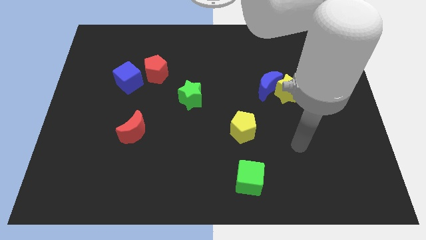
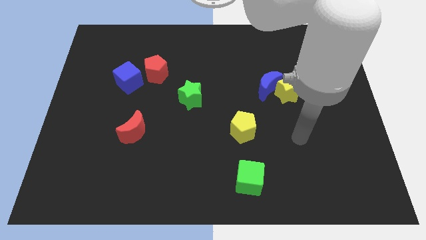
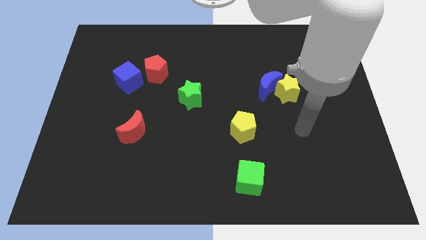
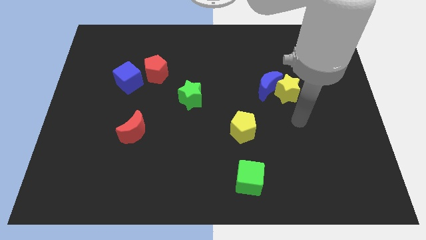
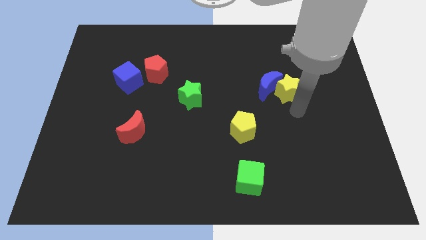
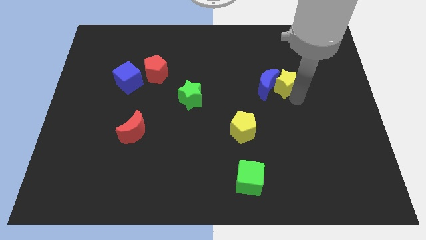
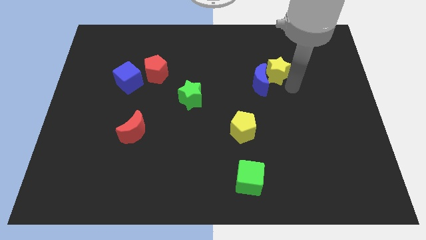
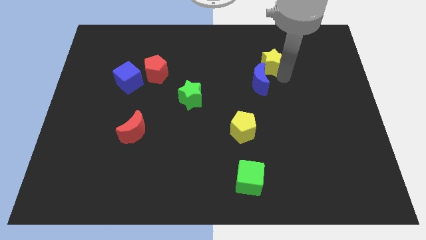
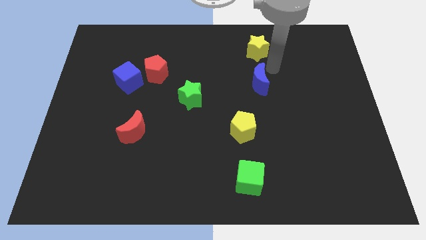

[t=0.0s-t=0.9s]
separate the blue moon from the yellow star

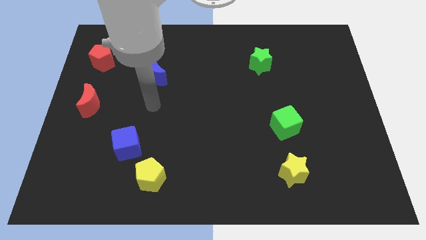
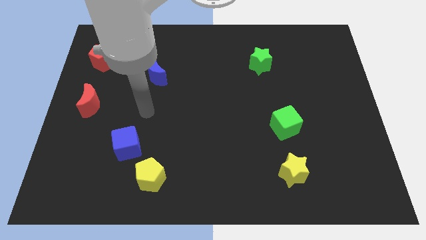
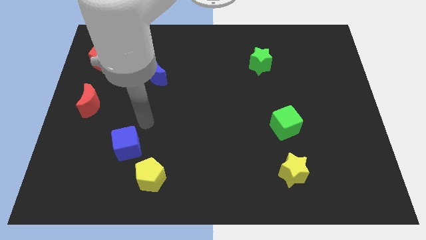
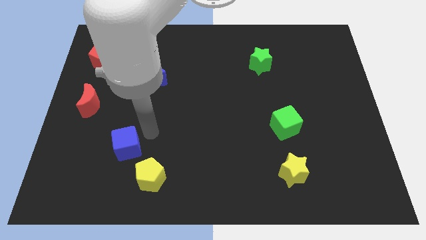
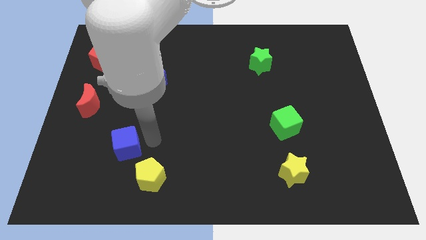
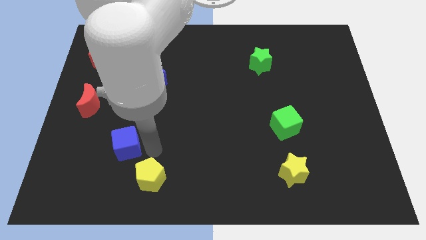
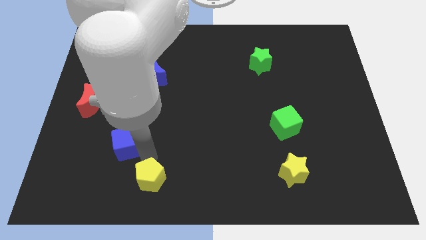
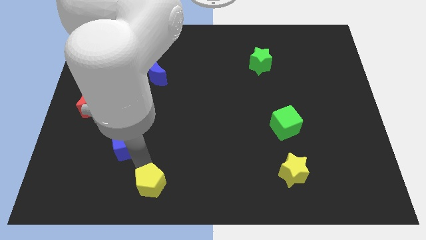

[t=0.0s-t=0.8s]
pull the blue cube apart from the yellow pentagon

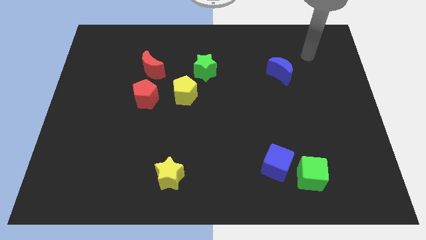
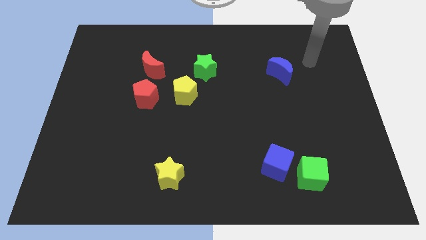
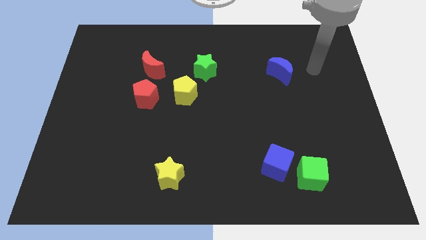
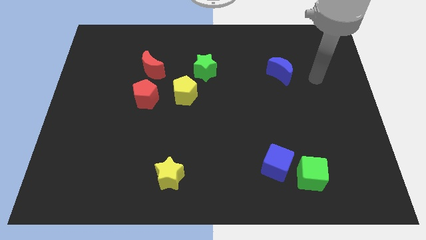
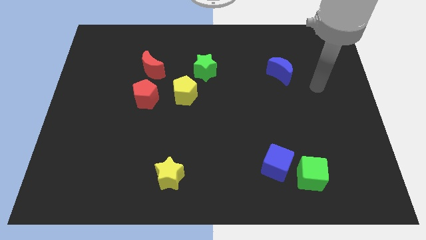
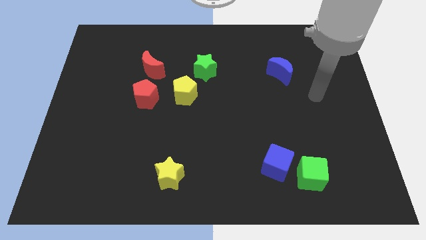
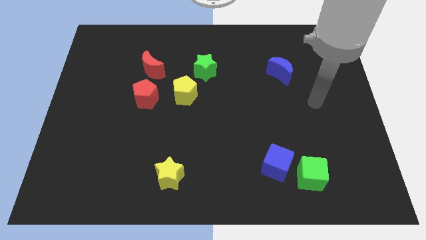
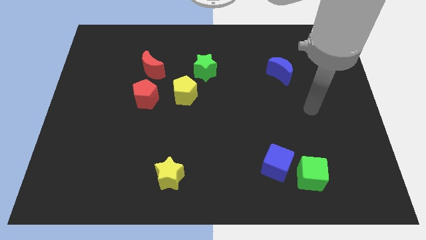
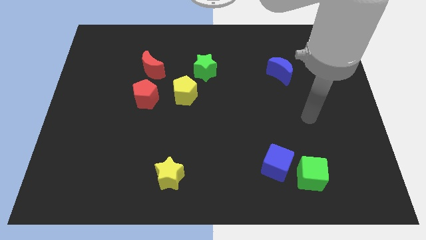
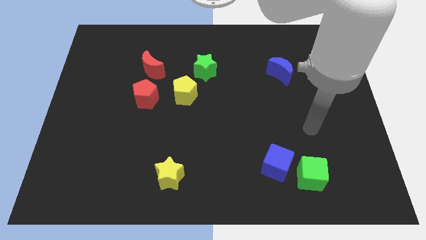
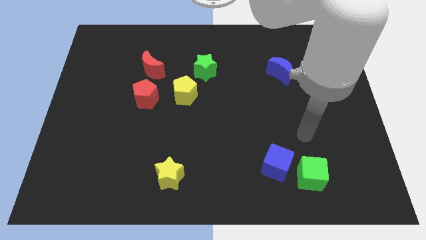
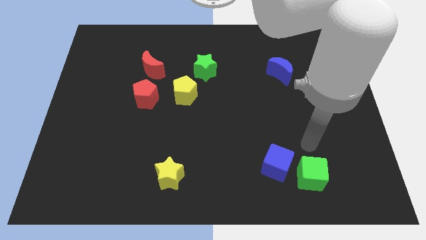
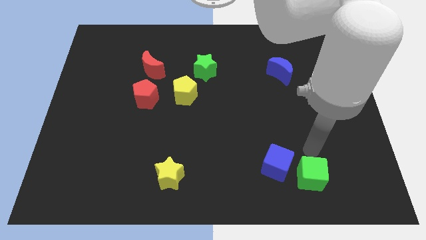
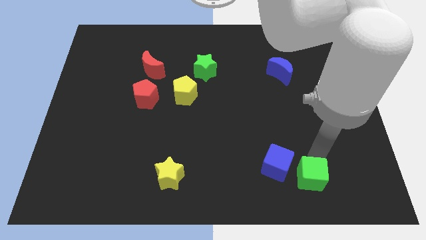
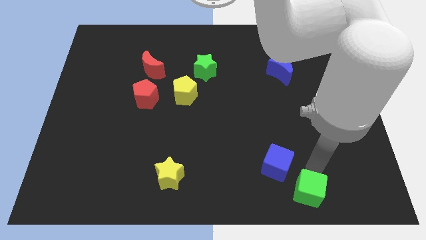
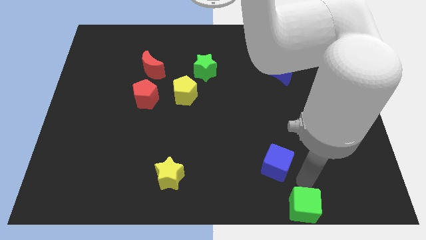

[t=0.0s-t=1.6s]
separate the blue cube from the green cube

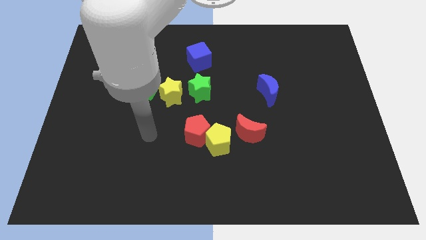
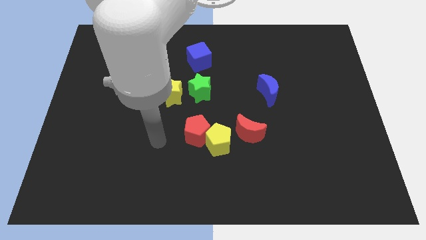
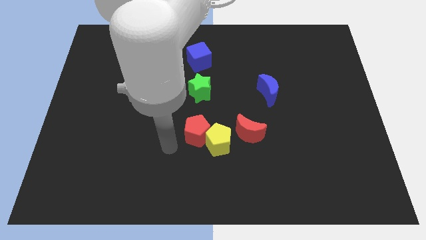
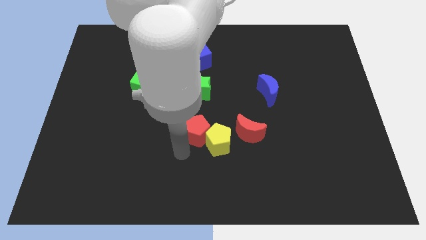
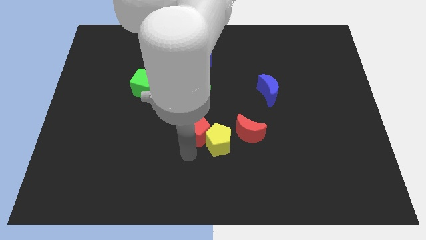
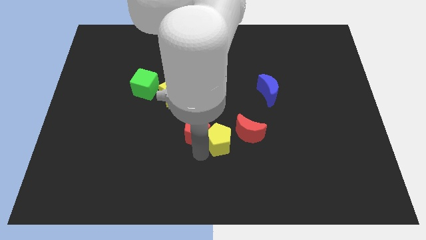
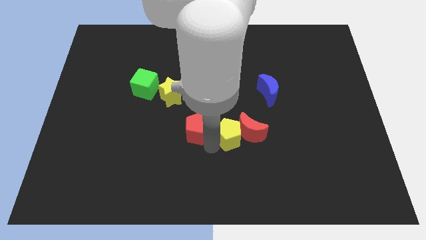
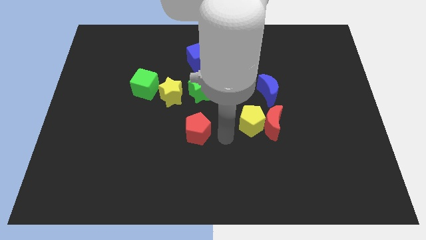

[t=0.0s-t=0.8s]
separate the red pentagon from the yellow pentagon

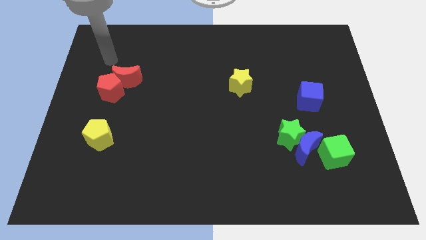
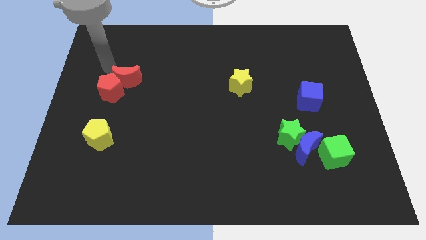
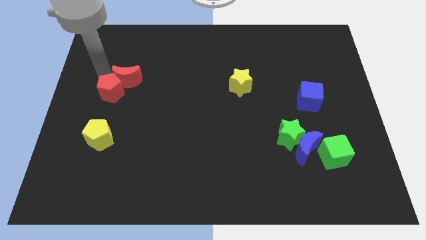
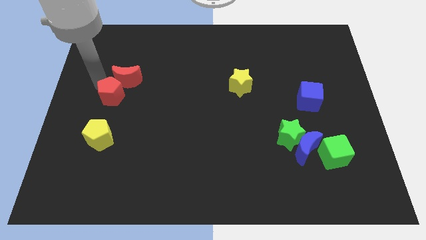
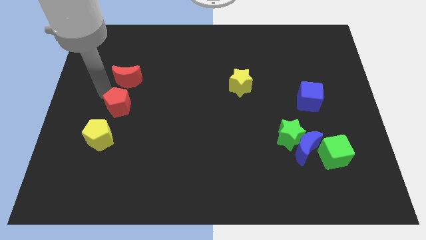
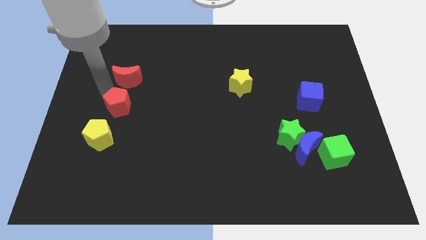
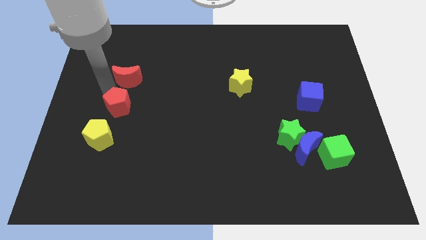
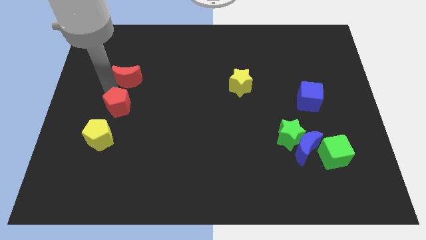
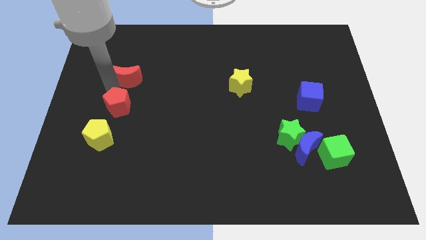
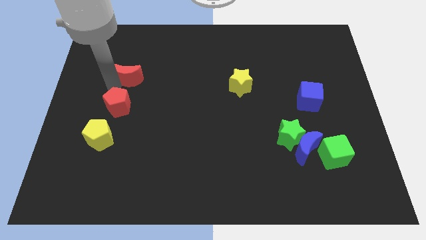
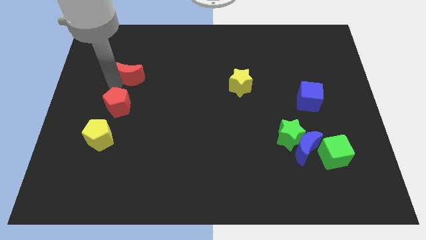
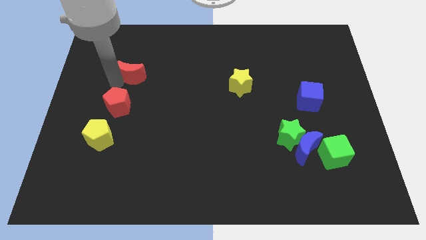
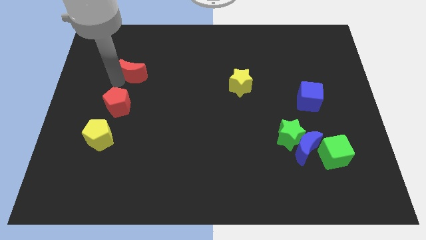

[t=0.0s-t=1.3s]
separate the red moon from the red pentagon

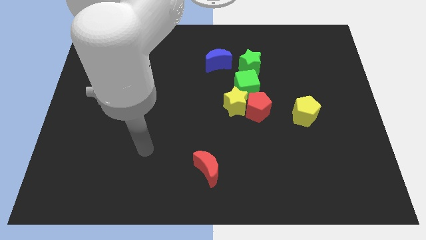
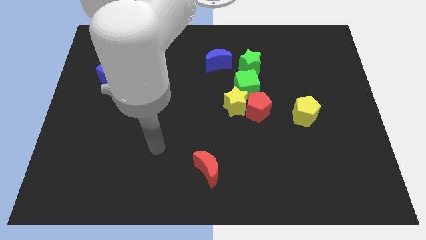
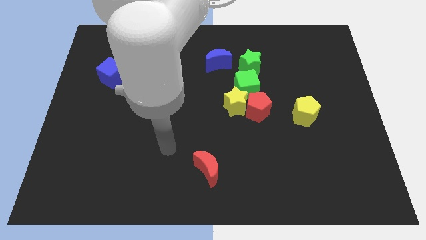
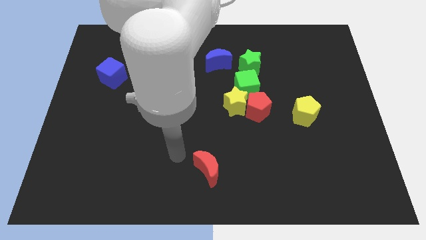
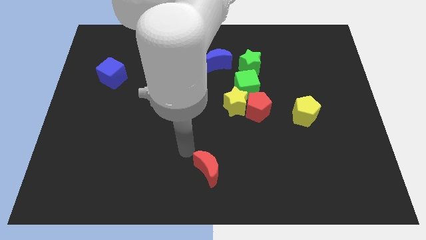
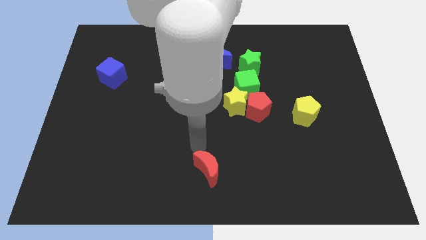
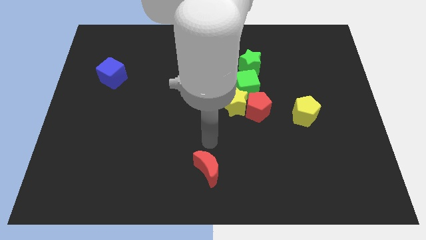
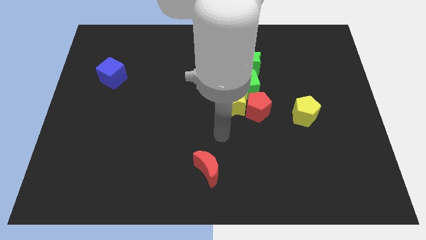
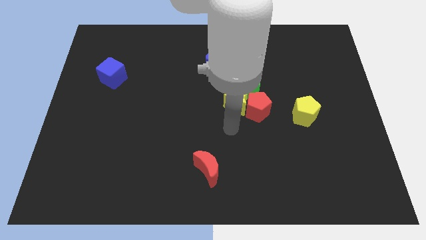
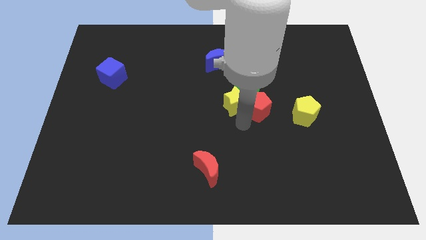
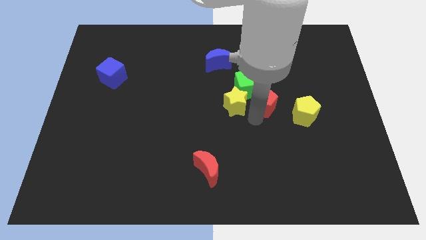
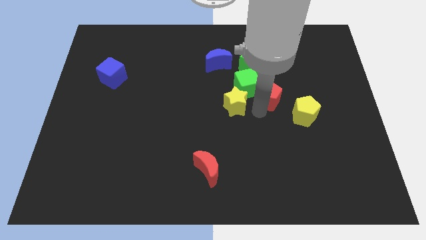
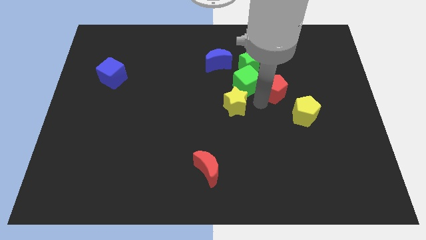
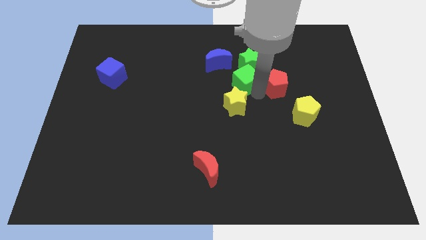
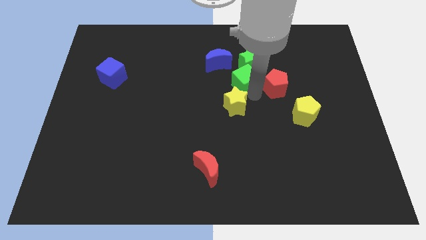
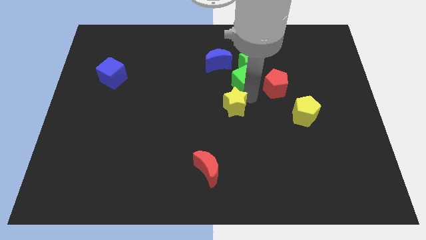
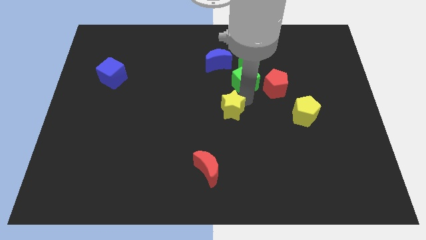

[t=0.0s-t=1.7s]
pull the yellow star apart from the red pentagon and green cube

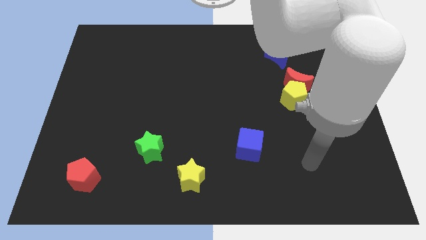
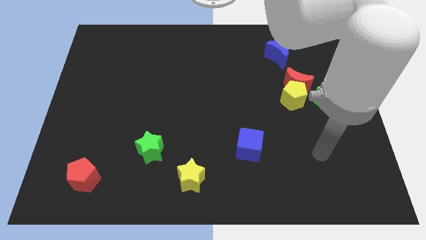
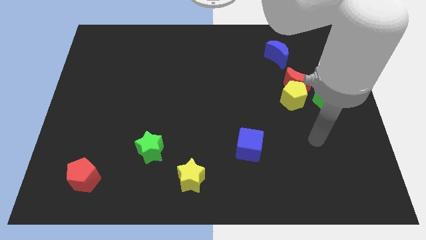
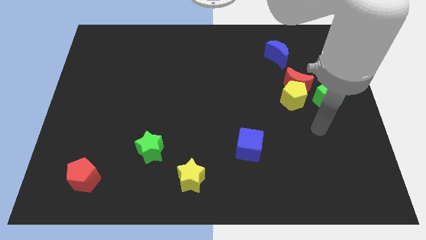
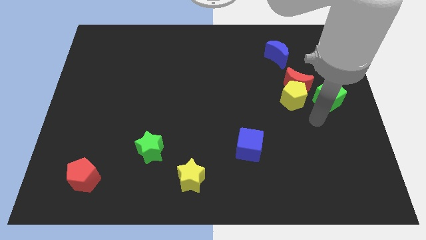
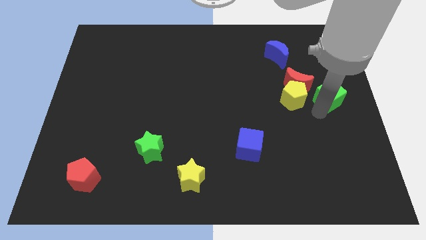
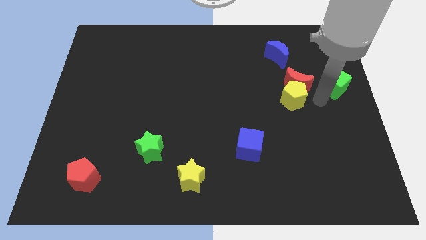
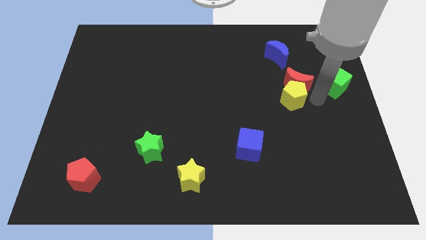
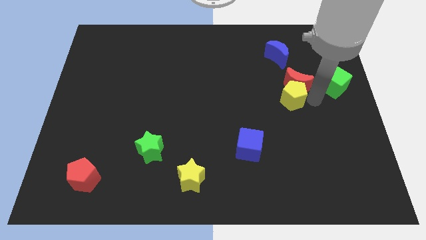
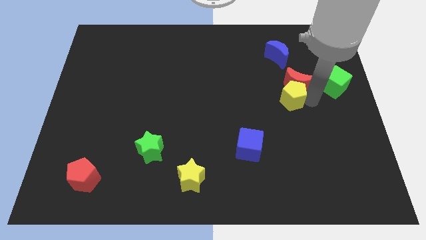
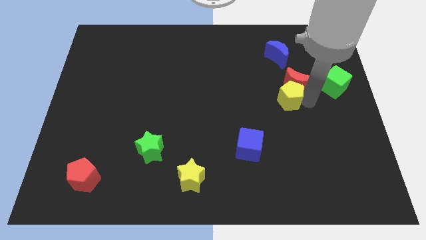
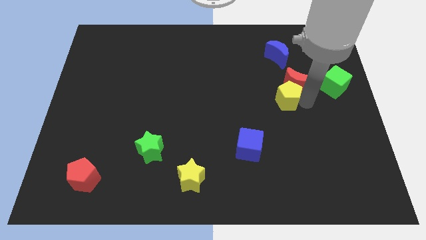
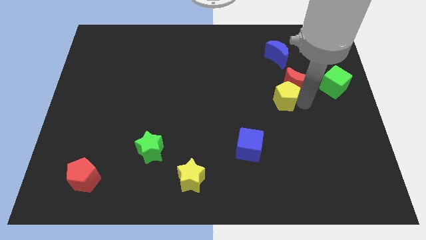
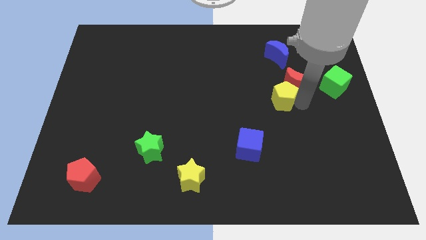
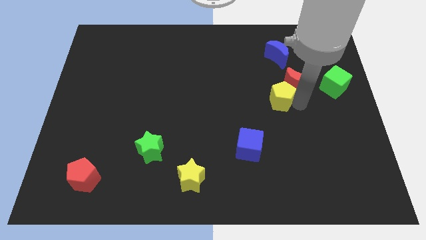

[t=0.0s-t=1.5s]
pull the yellow pentagon apart from the red moon and green cube

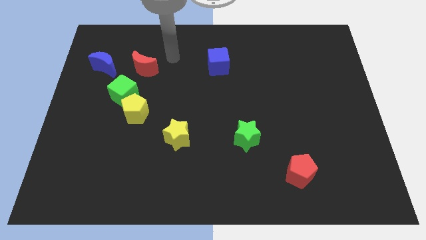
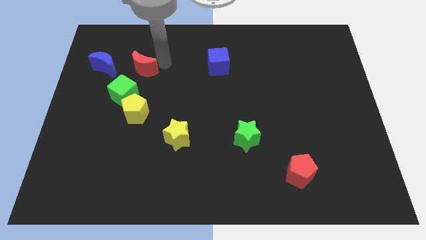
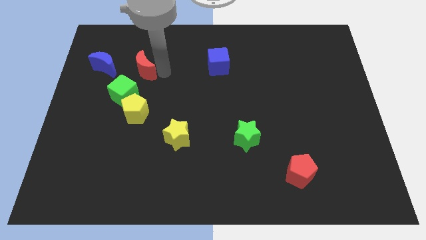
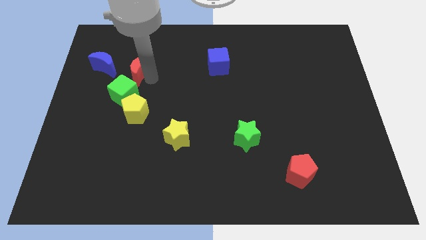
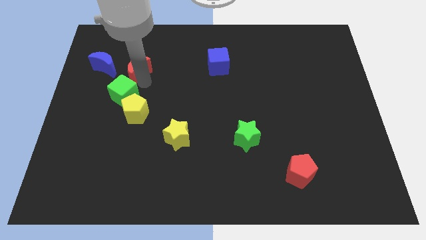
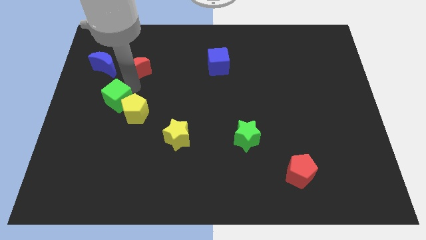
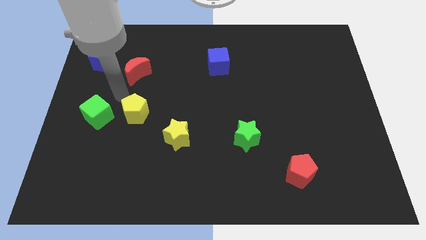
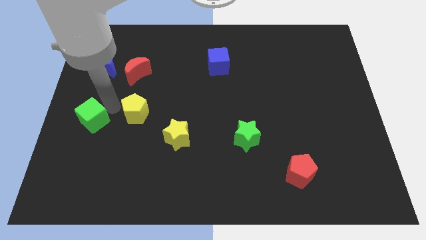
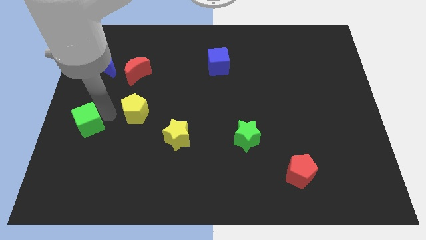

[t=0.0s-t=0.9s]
separate the yellow pentagon from the green cube
